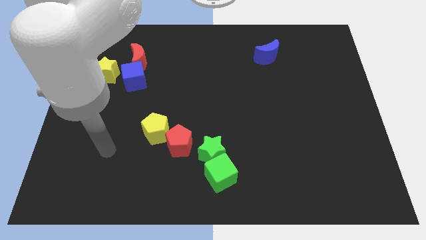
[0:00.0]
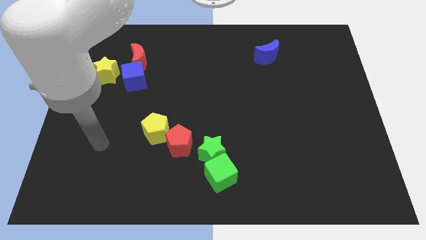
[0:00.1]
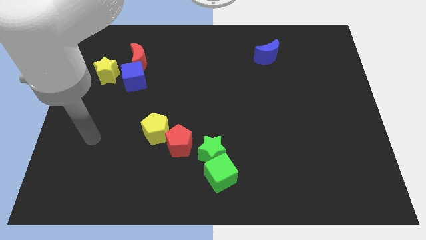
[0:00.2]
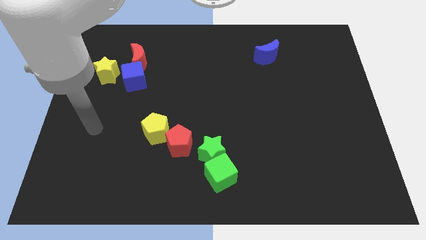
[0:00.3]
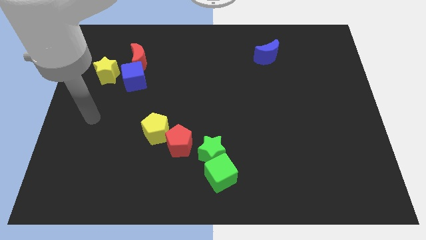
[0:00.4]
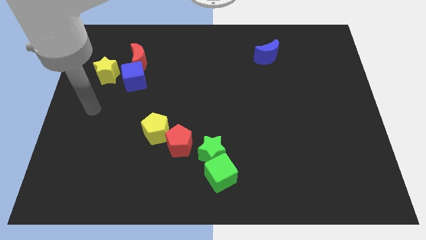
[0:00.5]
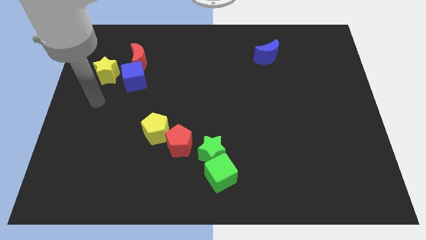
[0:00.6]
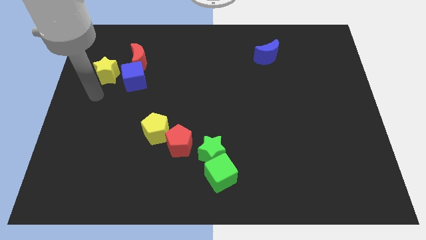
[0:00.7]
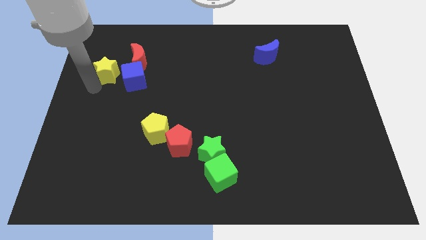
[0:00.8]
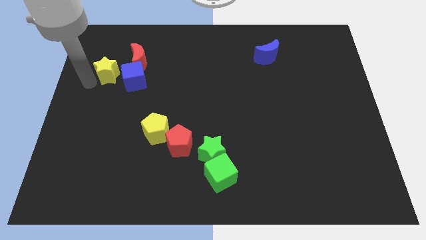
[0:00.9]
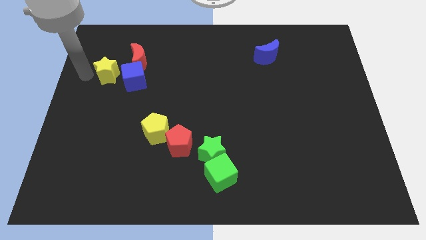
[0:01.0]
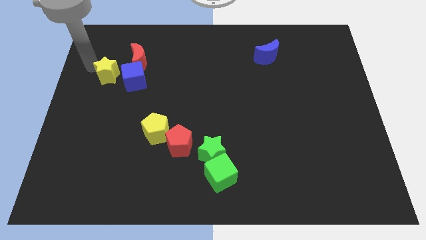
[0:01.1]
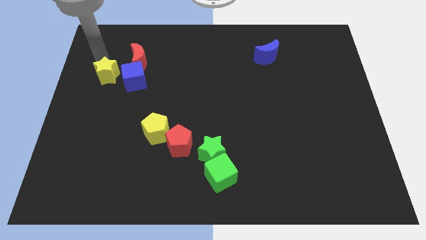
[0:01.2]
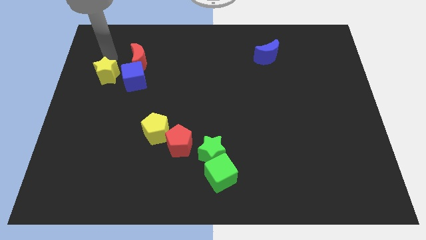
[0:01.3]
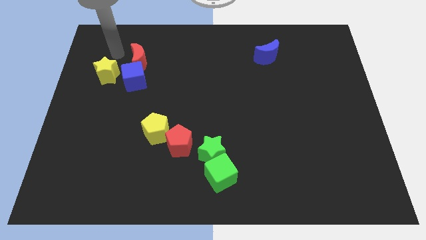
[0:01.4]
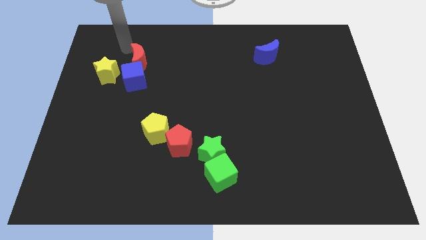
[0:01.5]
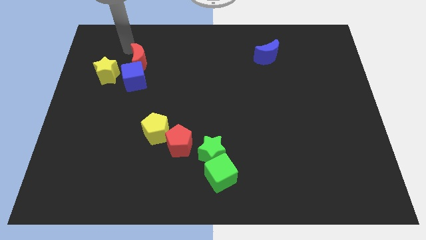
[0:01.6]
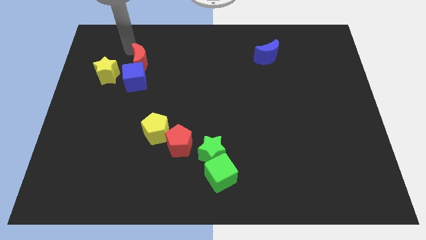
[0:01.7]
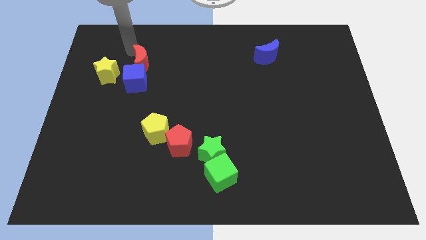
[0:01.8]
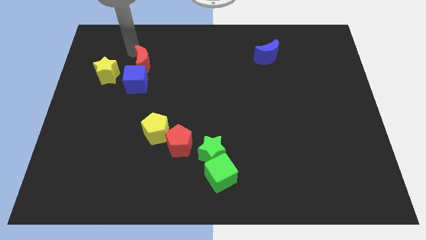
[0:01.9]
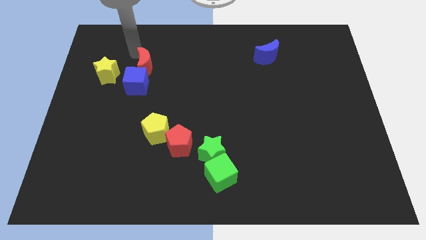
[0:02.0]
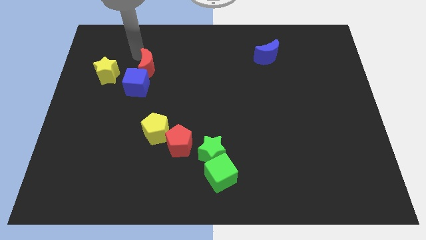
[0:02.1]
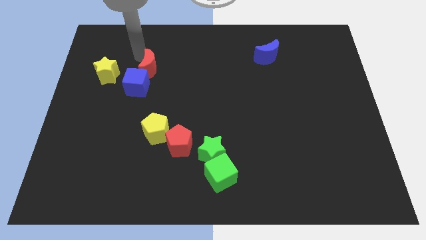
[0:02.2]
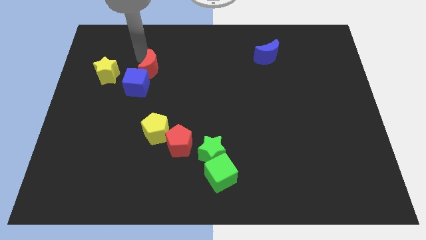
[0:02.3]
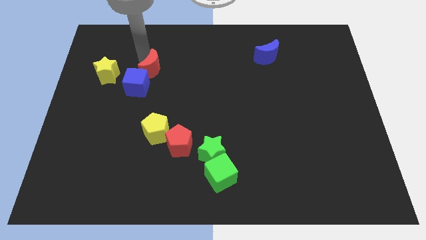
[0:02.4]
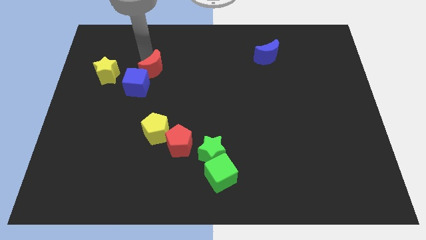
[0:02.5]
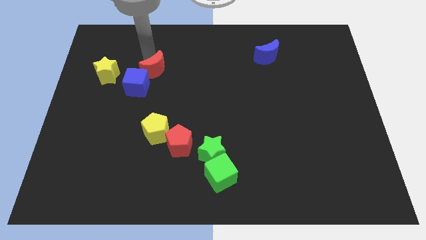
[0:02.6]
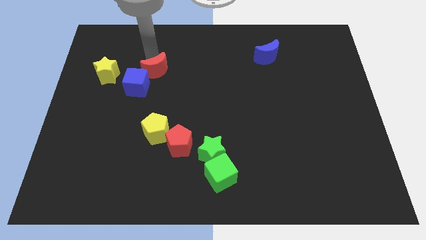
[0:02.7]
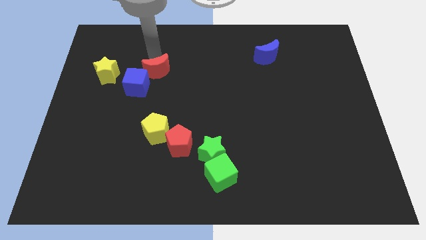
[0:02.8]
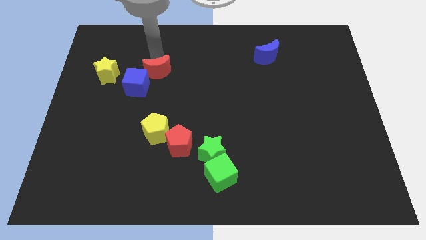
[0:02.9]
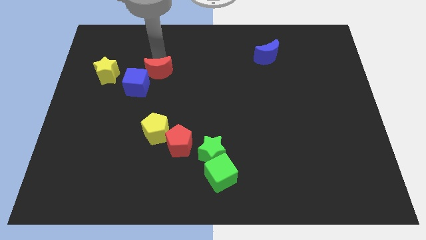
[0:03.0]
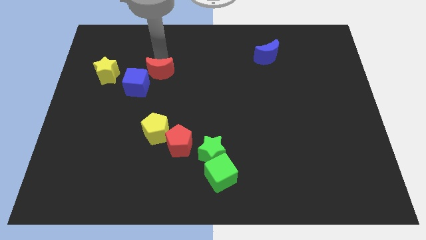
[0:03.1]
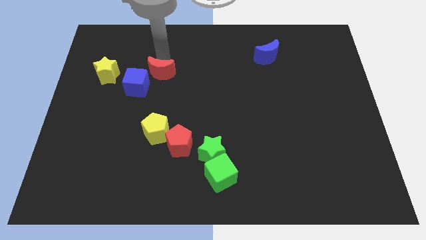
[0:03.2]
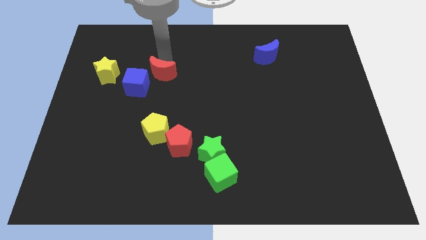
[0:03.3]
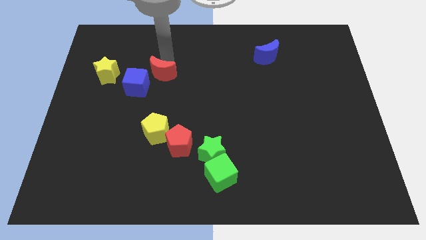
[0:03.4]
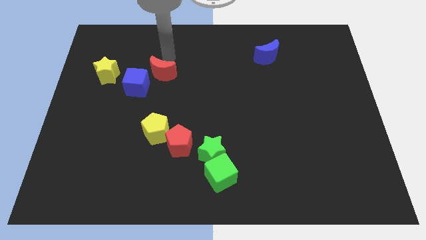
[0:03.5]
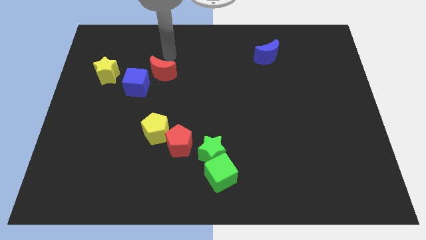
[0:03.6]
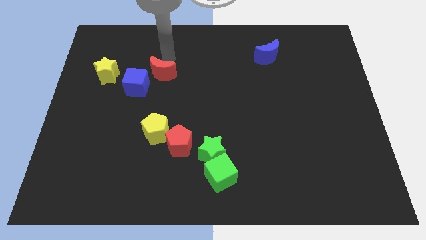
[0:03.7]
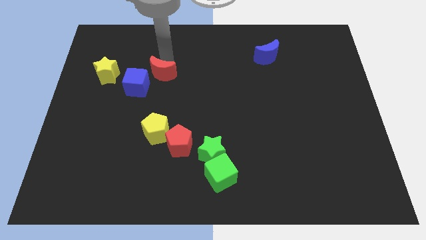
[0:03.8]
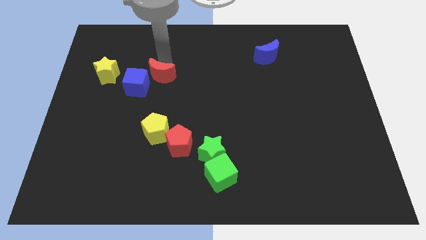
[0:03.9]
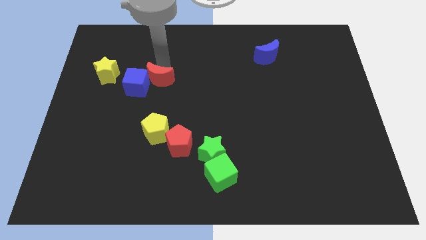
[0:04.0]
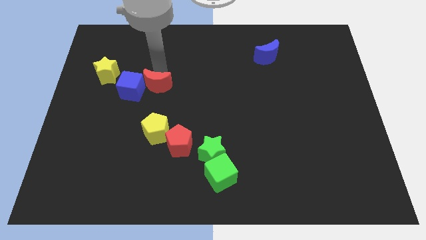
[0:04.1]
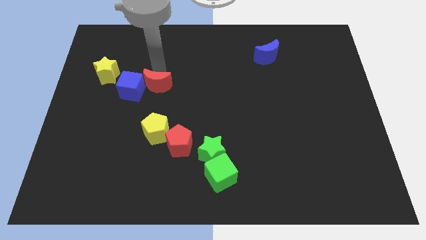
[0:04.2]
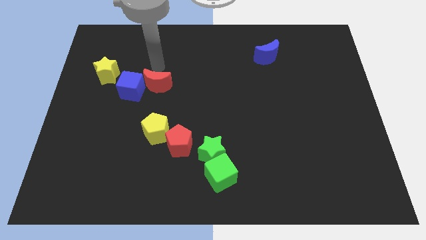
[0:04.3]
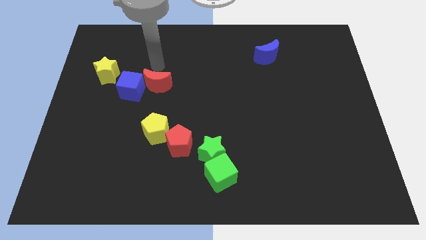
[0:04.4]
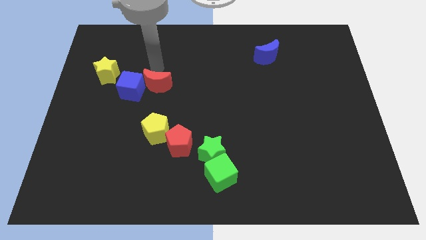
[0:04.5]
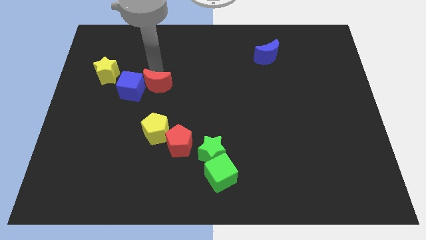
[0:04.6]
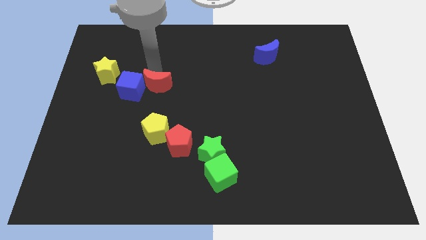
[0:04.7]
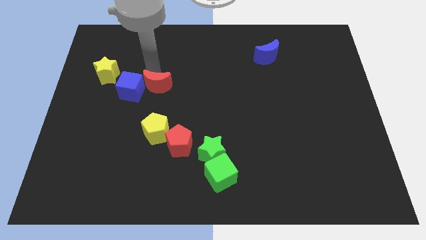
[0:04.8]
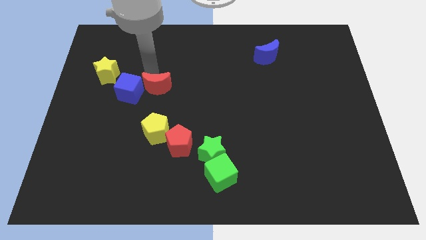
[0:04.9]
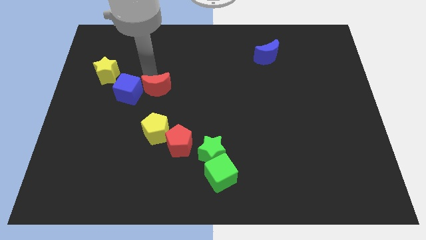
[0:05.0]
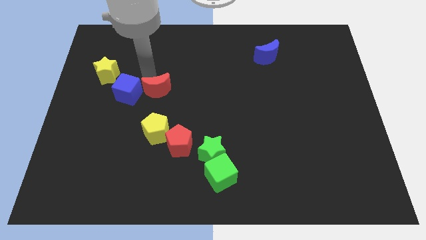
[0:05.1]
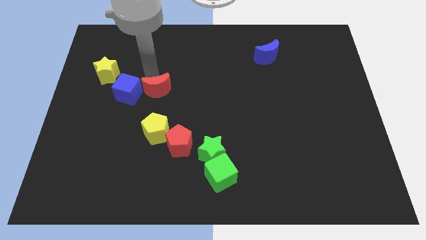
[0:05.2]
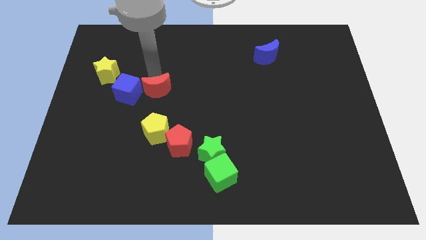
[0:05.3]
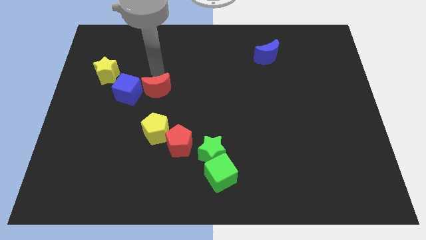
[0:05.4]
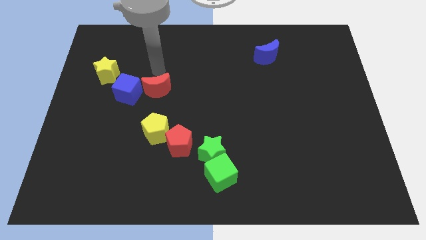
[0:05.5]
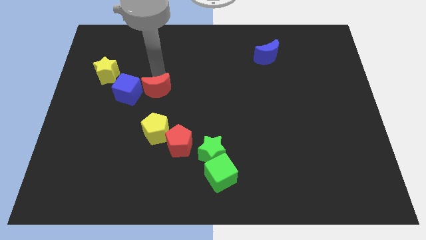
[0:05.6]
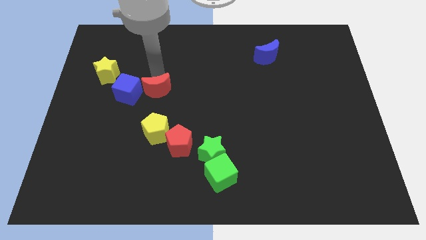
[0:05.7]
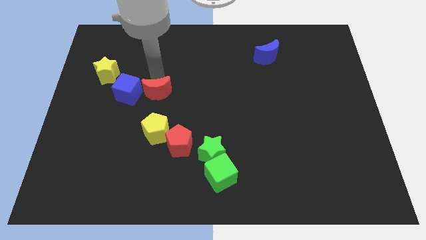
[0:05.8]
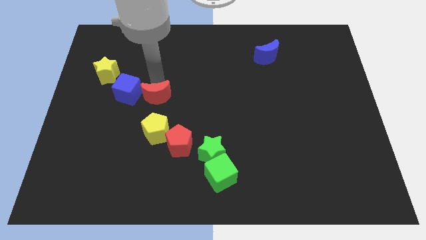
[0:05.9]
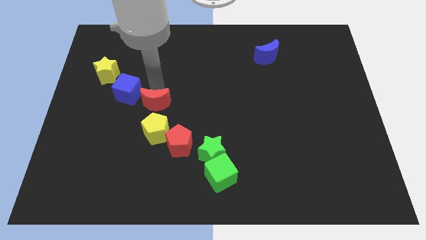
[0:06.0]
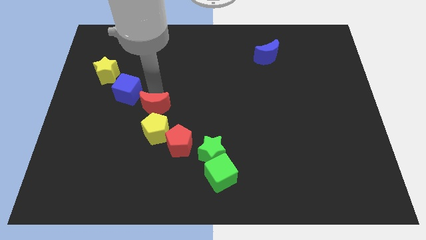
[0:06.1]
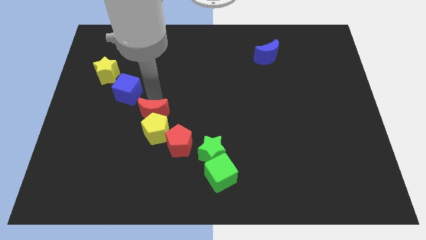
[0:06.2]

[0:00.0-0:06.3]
put the red moon towards the yellow pentagon

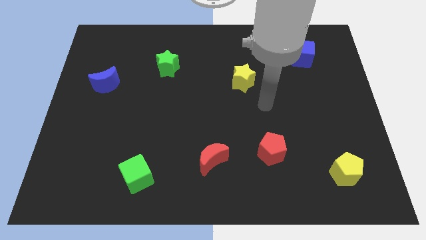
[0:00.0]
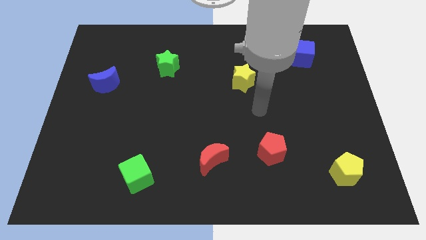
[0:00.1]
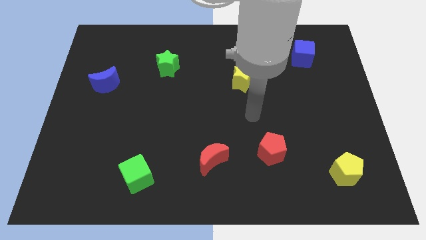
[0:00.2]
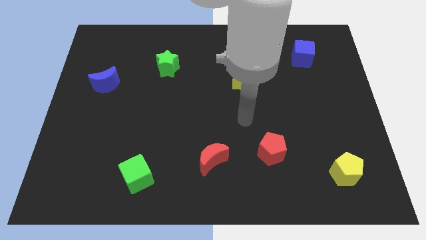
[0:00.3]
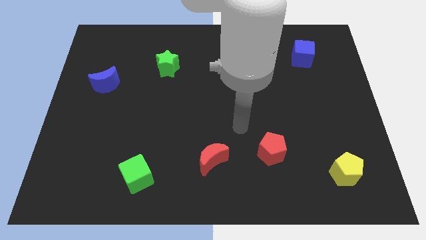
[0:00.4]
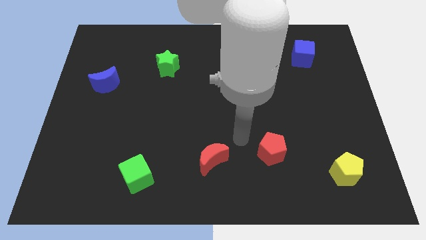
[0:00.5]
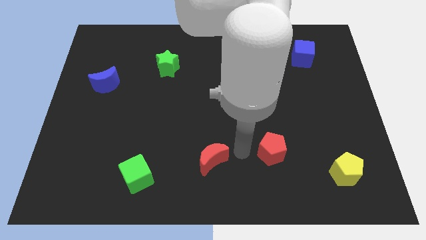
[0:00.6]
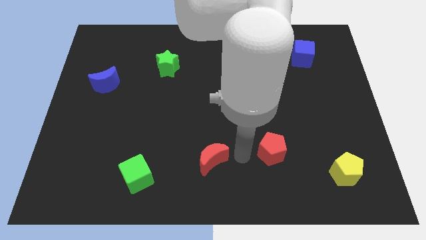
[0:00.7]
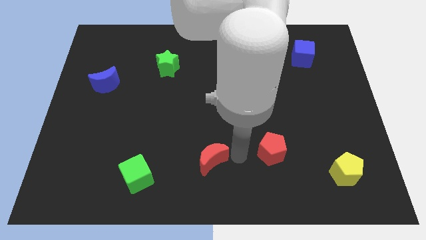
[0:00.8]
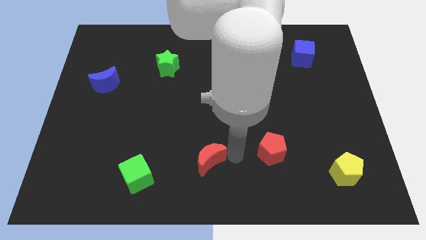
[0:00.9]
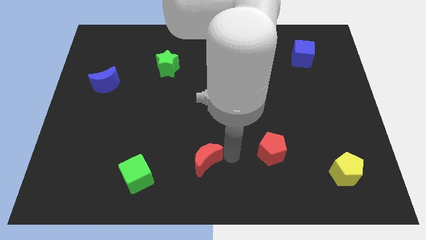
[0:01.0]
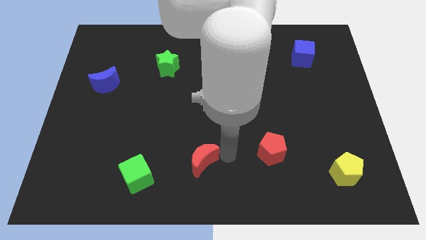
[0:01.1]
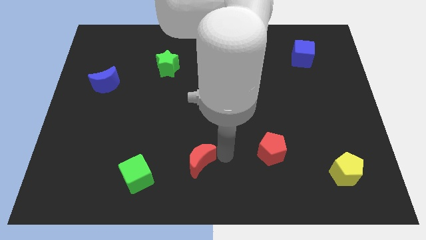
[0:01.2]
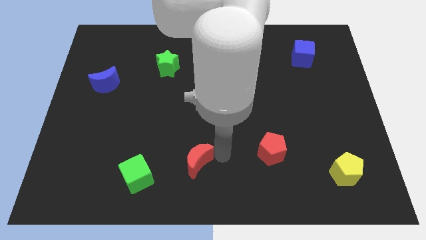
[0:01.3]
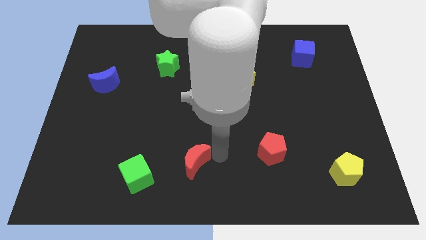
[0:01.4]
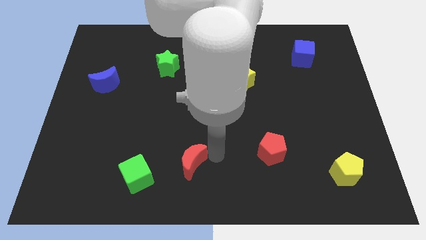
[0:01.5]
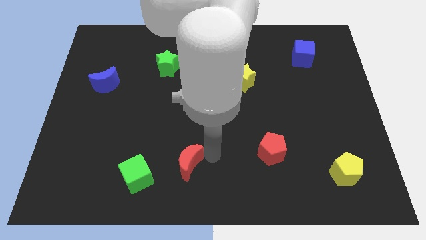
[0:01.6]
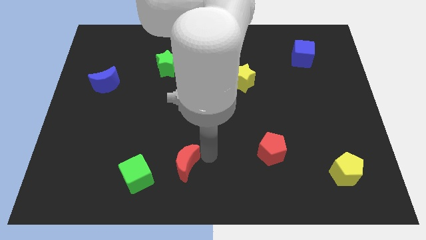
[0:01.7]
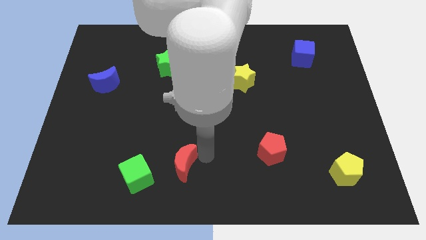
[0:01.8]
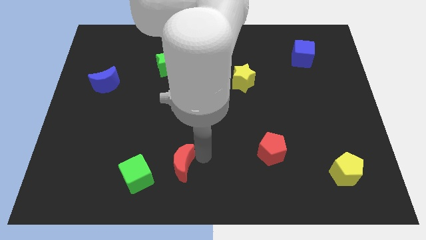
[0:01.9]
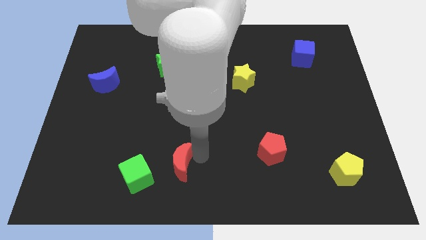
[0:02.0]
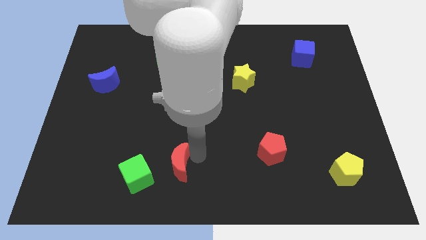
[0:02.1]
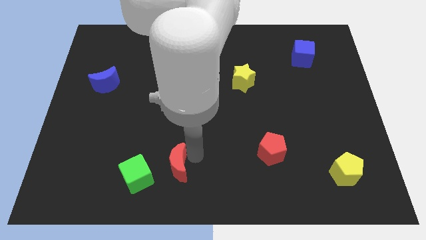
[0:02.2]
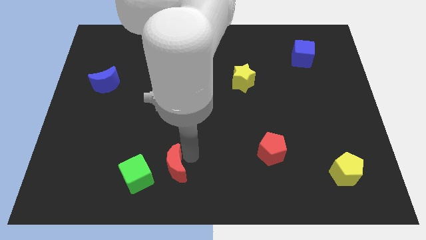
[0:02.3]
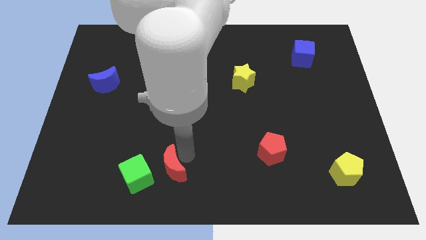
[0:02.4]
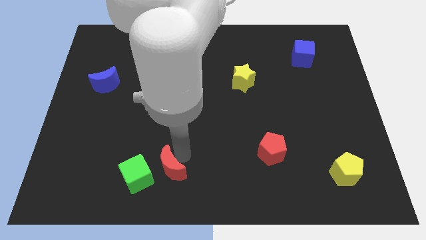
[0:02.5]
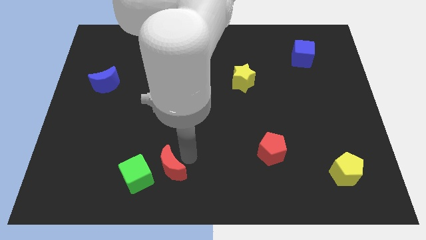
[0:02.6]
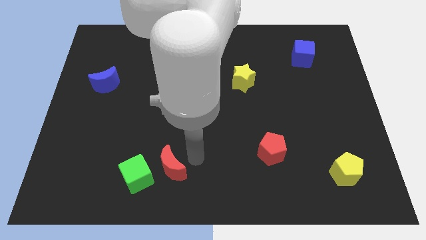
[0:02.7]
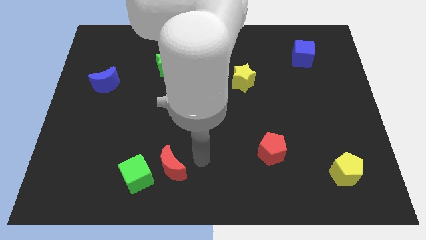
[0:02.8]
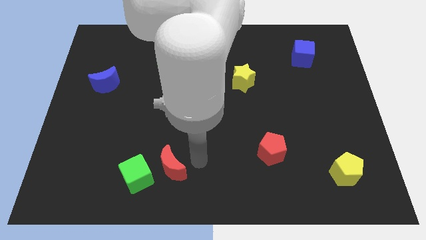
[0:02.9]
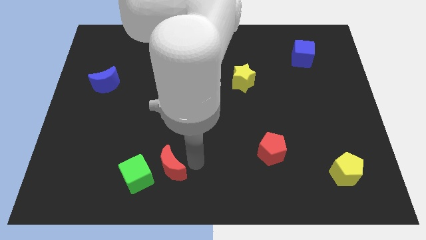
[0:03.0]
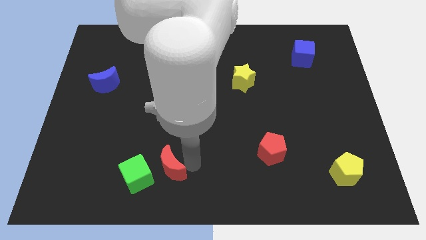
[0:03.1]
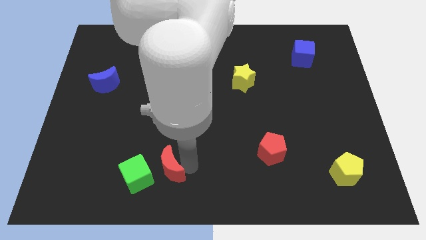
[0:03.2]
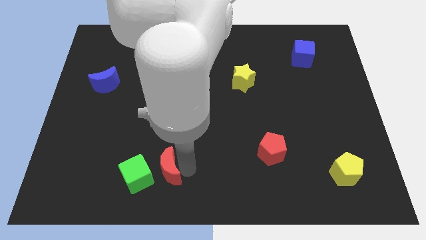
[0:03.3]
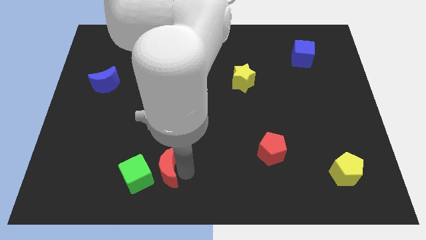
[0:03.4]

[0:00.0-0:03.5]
push the red moon towards the green cube
